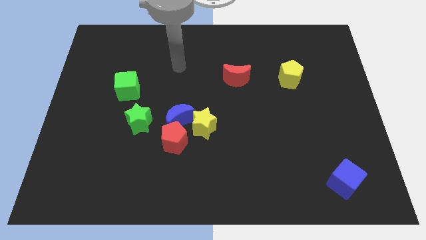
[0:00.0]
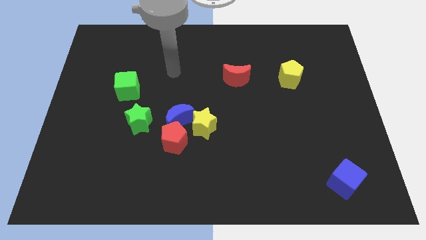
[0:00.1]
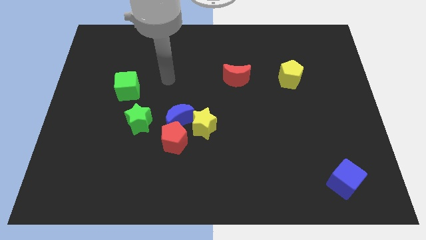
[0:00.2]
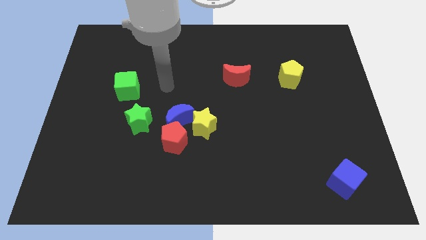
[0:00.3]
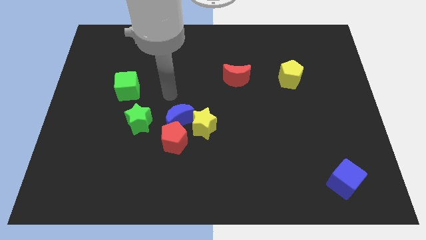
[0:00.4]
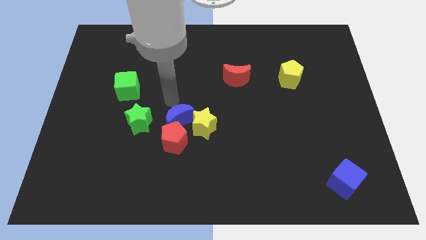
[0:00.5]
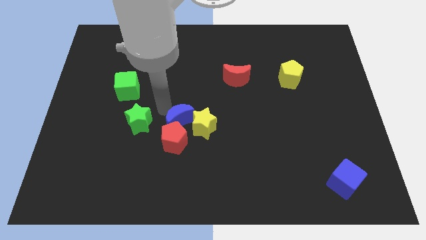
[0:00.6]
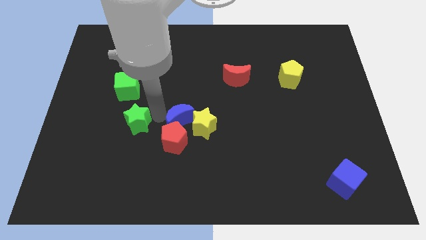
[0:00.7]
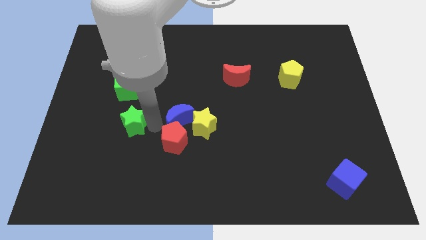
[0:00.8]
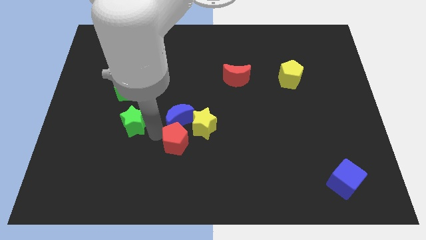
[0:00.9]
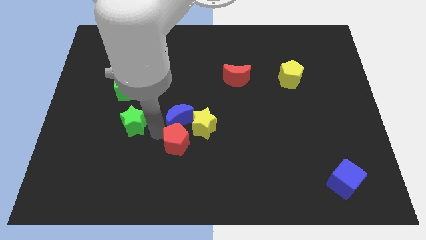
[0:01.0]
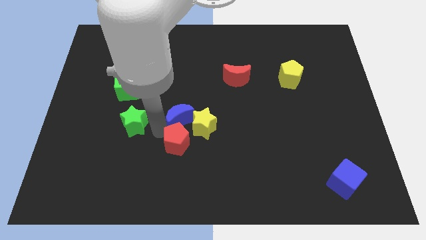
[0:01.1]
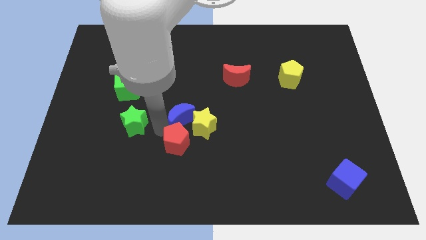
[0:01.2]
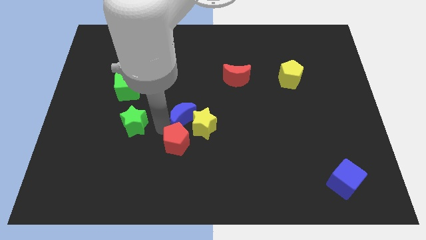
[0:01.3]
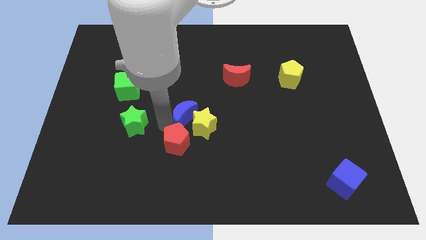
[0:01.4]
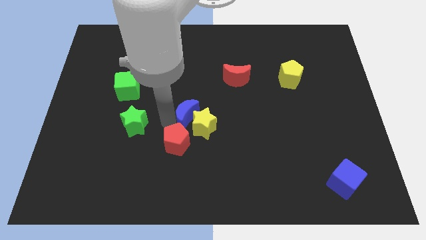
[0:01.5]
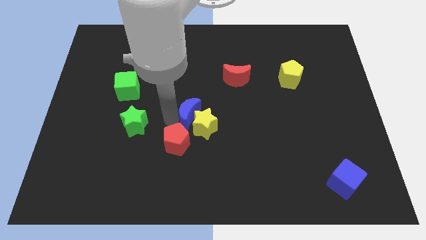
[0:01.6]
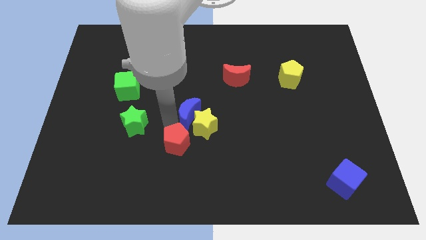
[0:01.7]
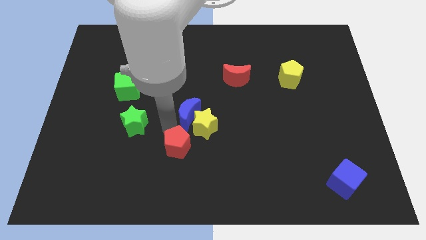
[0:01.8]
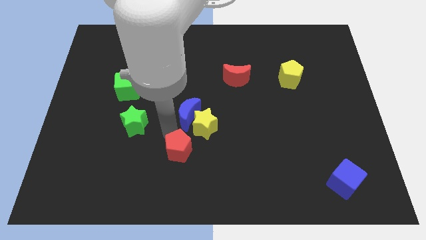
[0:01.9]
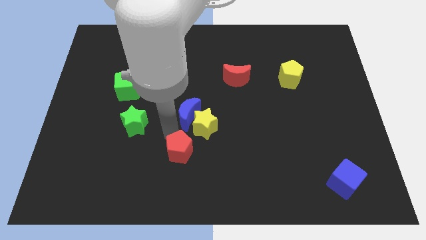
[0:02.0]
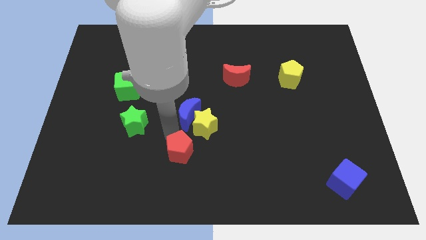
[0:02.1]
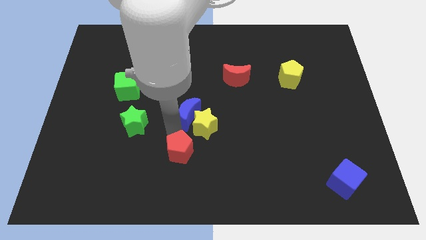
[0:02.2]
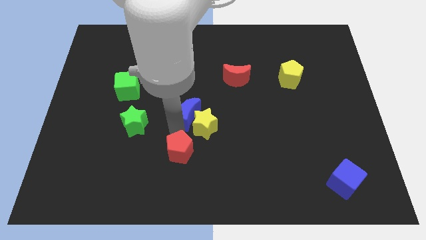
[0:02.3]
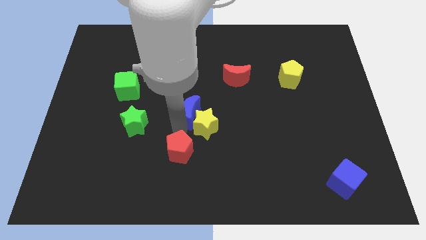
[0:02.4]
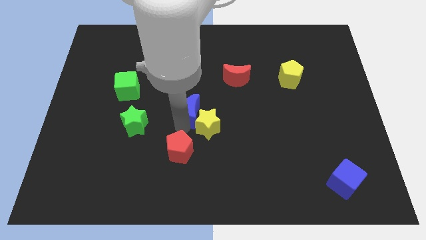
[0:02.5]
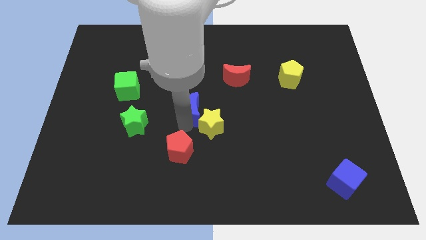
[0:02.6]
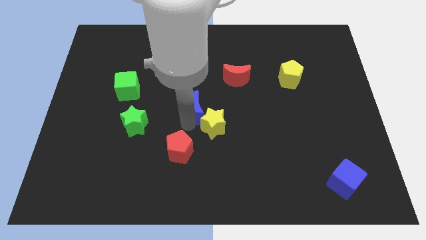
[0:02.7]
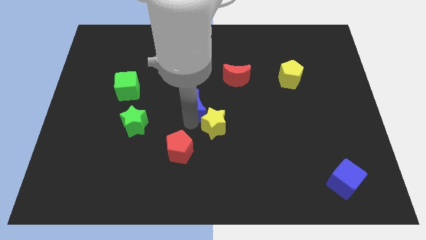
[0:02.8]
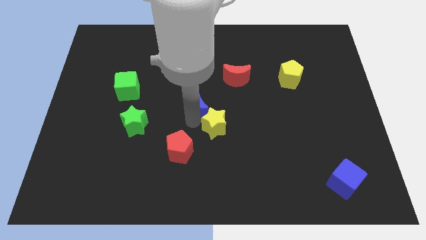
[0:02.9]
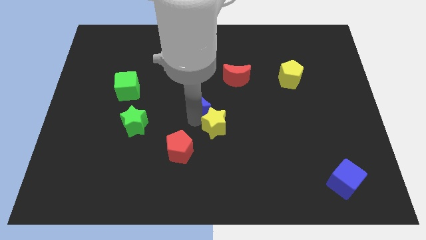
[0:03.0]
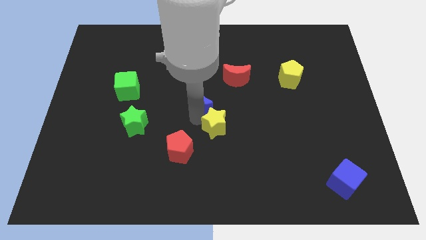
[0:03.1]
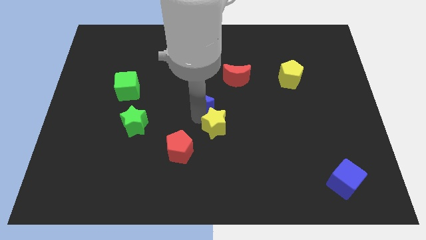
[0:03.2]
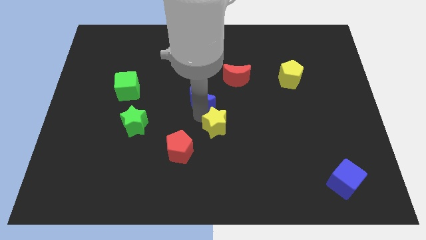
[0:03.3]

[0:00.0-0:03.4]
move the blue moon away from the red pentagon, yellow star, and green star

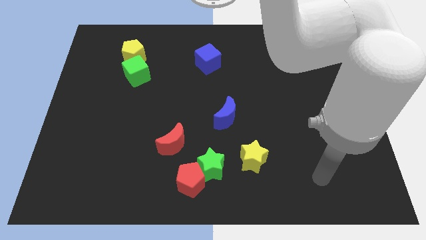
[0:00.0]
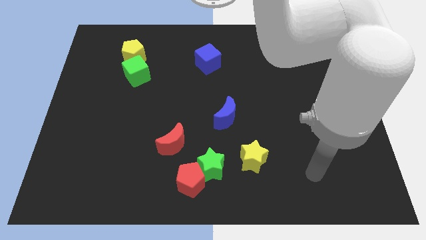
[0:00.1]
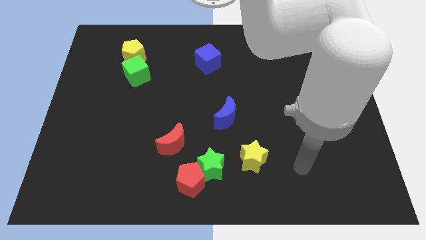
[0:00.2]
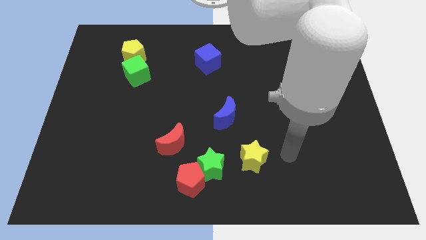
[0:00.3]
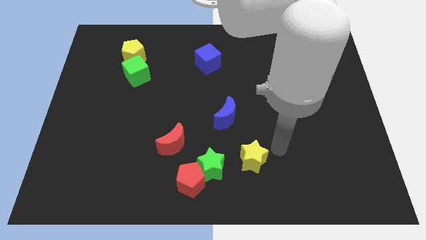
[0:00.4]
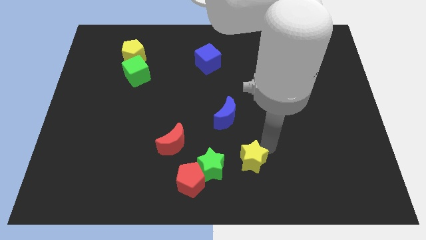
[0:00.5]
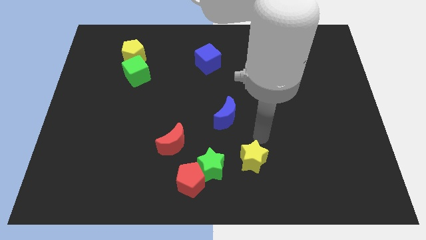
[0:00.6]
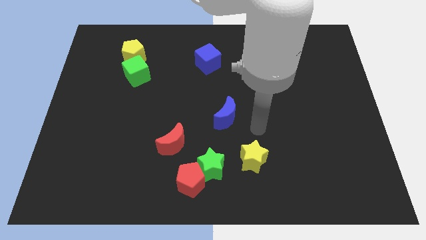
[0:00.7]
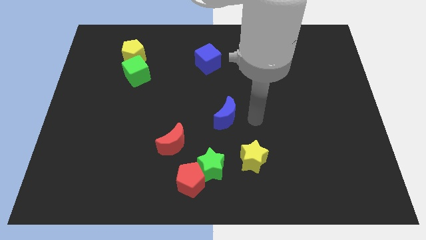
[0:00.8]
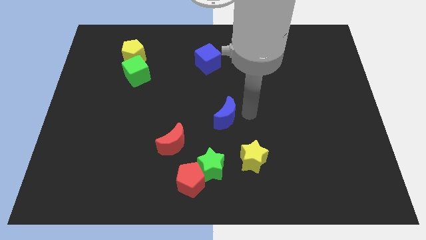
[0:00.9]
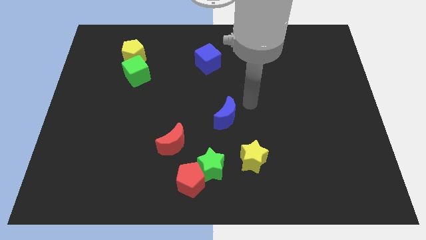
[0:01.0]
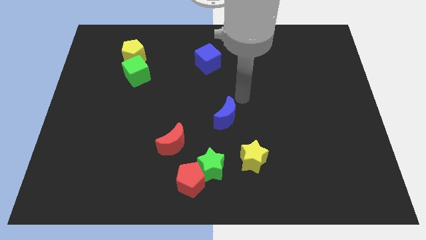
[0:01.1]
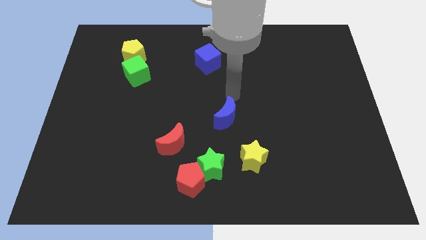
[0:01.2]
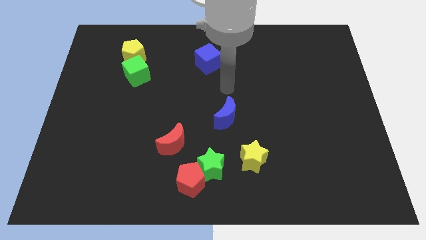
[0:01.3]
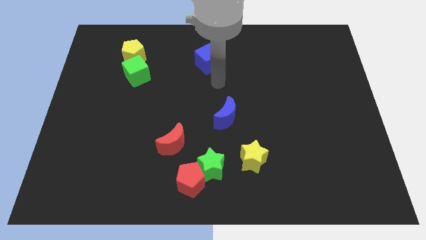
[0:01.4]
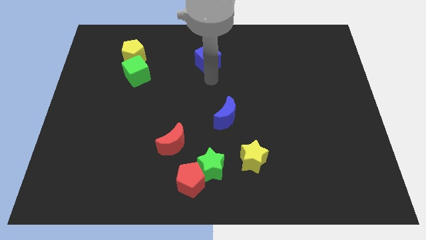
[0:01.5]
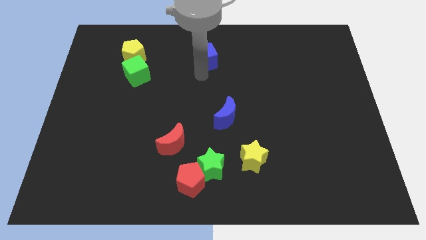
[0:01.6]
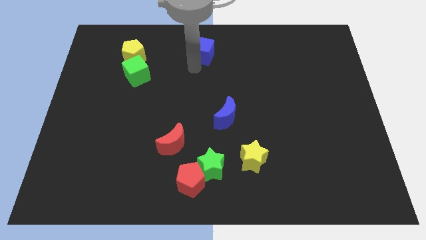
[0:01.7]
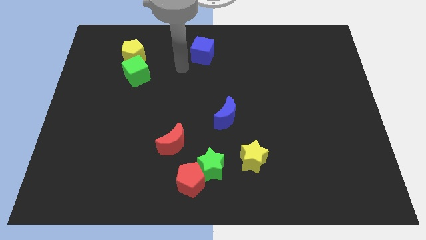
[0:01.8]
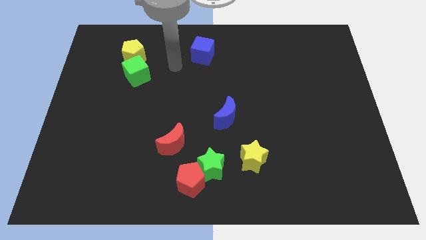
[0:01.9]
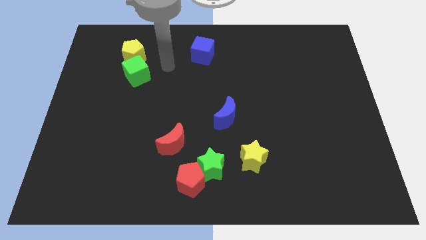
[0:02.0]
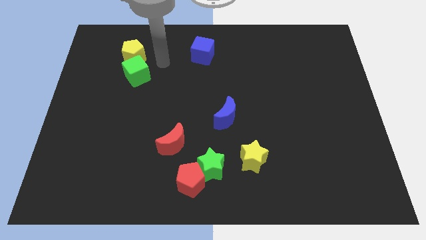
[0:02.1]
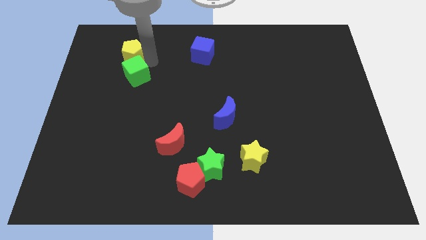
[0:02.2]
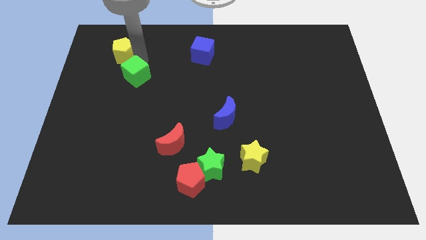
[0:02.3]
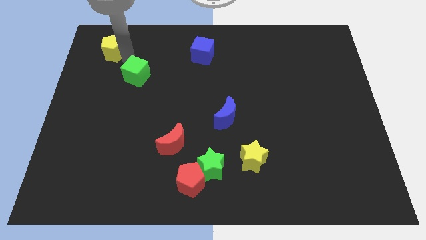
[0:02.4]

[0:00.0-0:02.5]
pull the green cube apart from the yellow pentagon

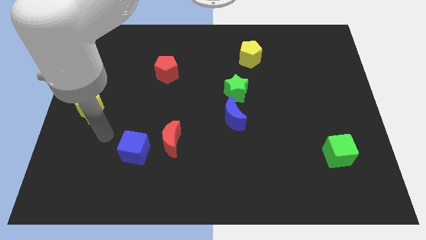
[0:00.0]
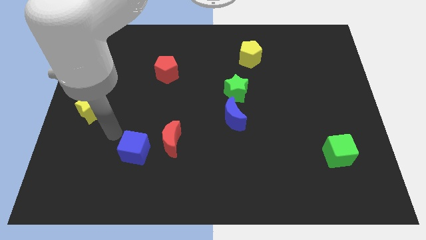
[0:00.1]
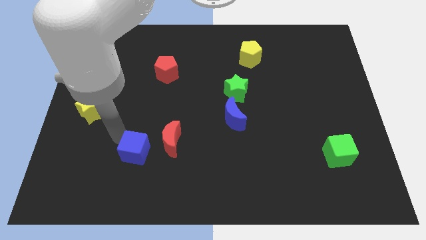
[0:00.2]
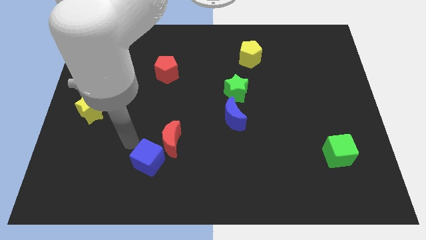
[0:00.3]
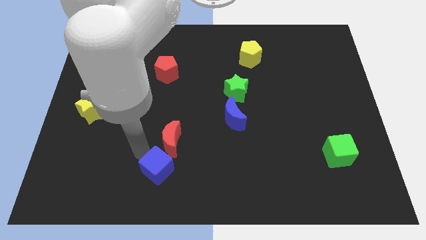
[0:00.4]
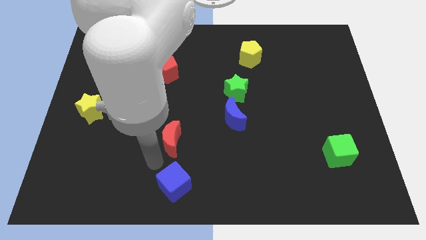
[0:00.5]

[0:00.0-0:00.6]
separate the red moon from the blue cube

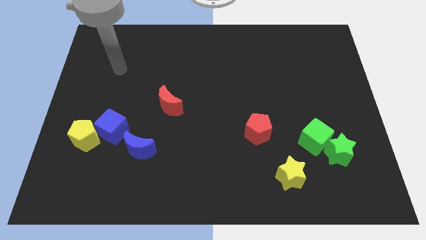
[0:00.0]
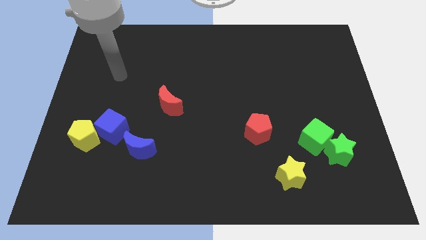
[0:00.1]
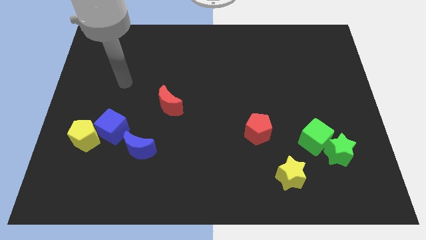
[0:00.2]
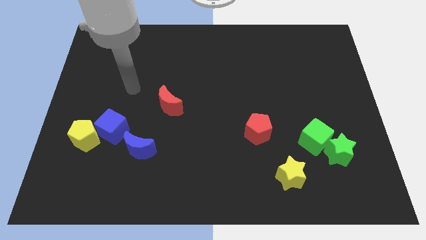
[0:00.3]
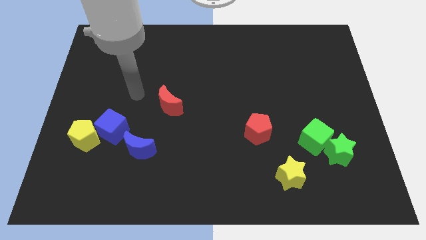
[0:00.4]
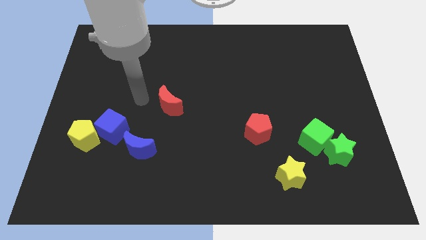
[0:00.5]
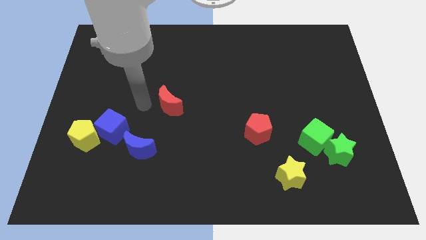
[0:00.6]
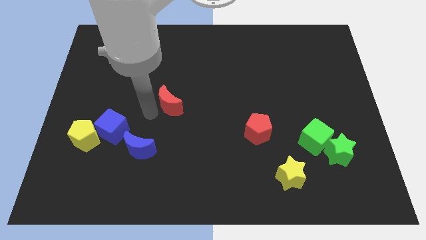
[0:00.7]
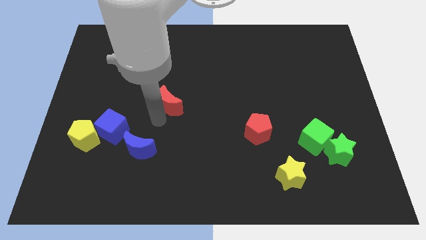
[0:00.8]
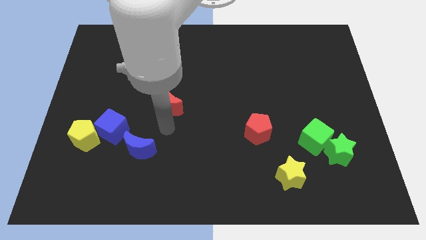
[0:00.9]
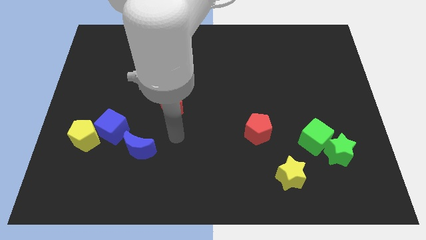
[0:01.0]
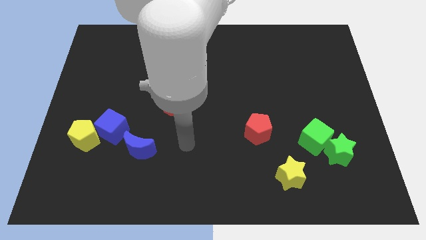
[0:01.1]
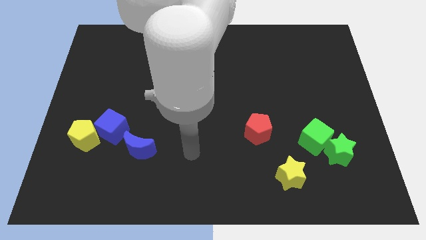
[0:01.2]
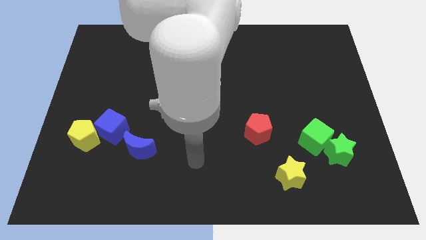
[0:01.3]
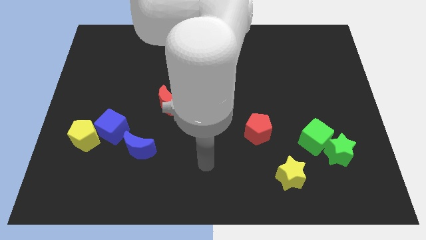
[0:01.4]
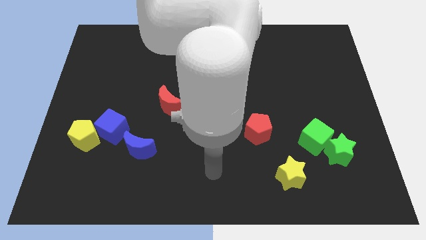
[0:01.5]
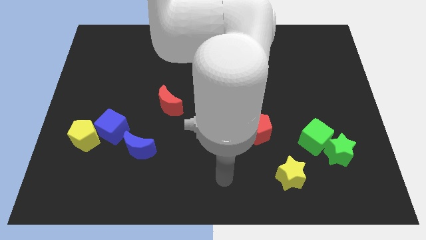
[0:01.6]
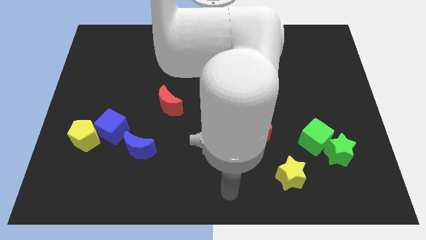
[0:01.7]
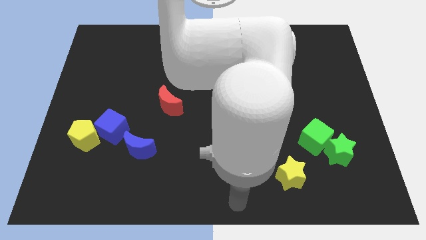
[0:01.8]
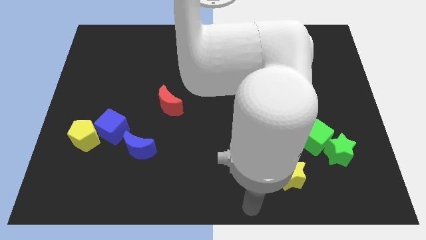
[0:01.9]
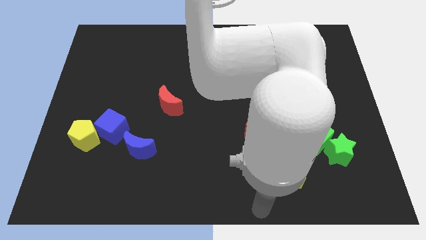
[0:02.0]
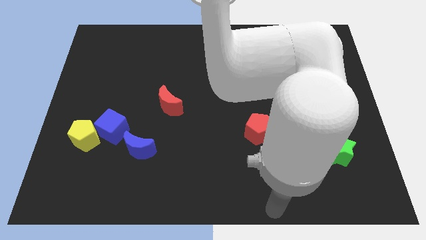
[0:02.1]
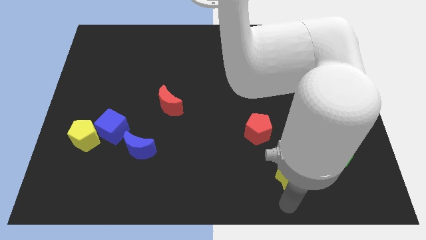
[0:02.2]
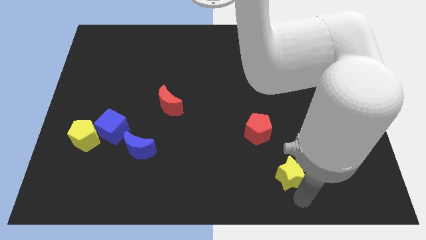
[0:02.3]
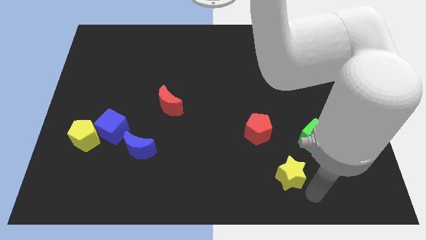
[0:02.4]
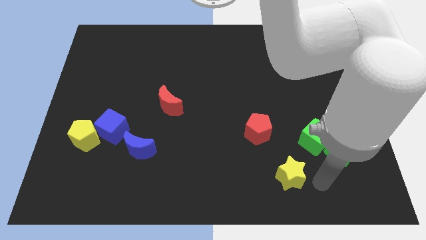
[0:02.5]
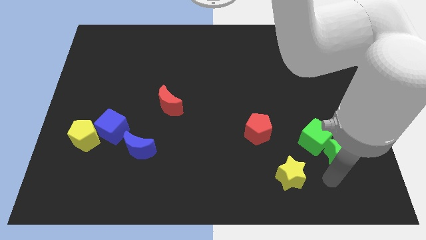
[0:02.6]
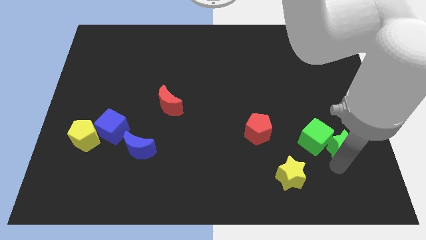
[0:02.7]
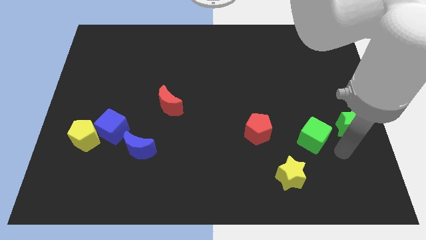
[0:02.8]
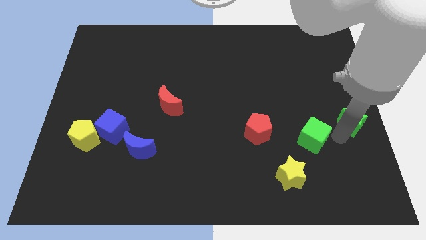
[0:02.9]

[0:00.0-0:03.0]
separate the green cube from the green star
